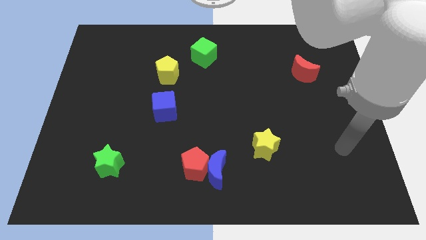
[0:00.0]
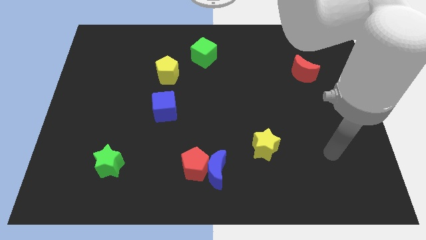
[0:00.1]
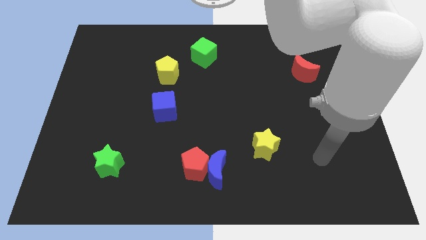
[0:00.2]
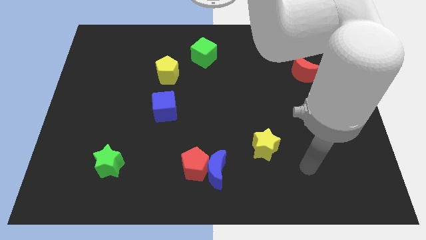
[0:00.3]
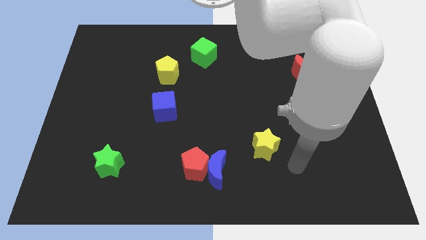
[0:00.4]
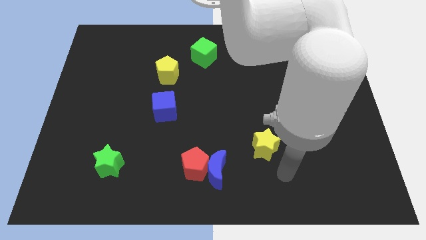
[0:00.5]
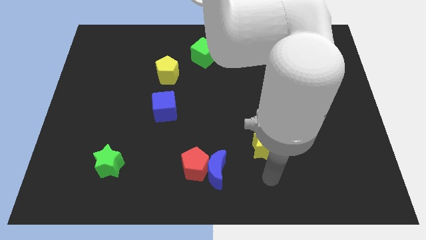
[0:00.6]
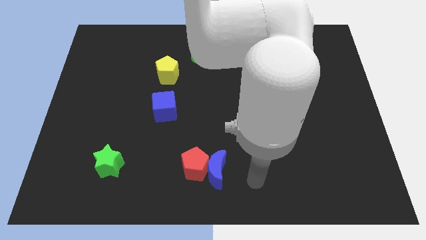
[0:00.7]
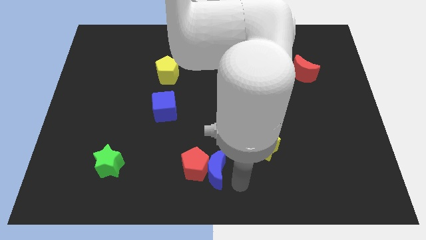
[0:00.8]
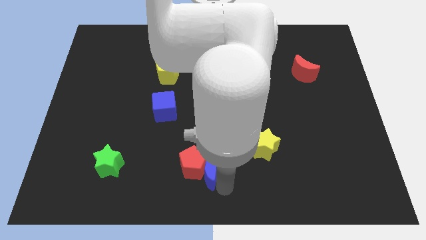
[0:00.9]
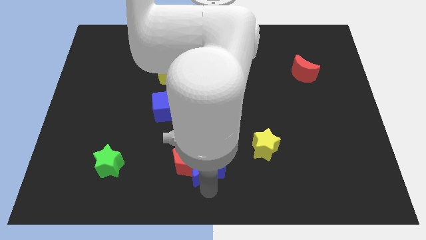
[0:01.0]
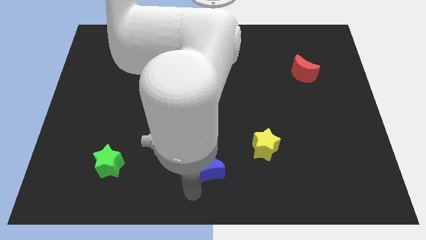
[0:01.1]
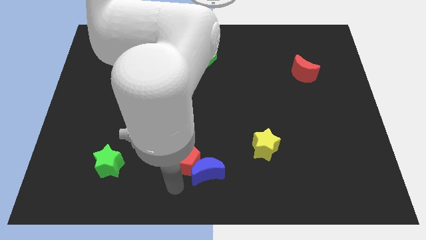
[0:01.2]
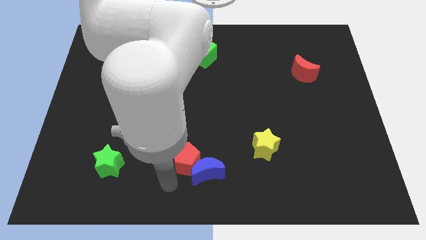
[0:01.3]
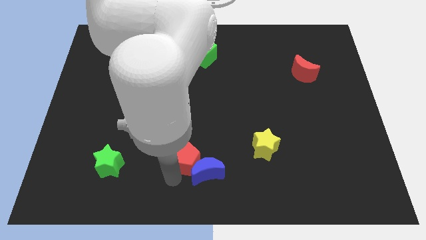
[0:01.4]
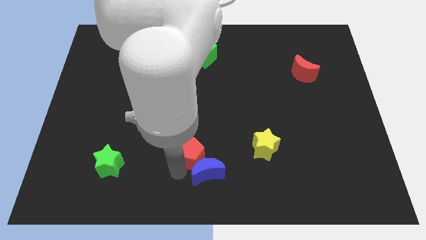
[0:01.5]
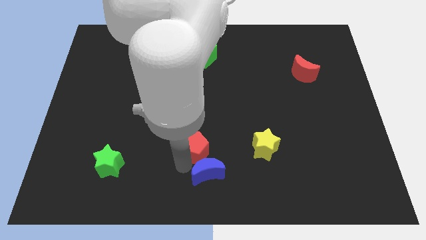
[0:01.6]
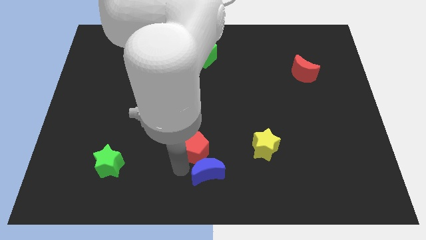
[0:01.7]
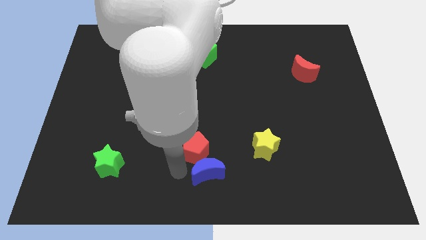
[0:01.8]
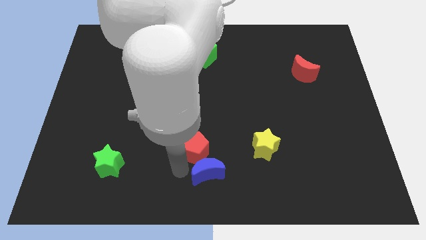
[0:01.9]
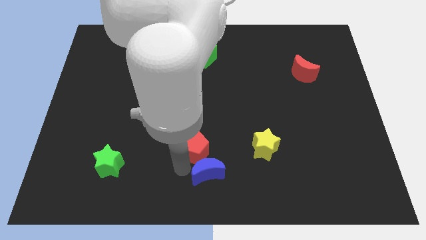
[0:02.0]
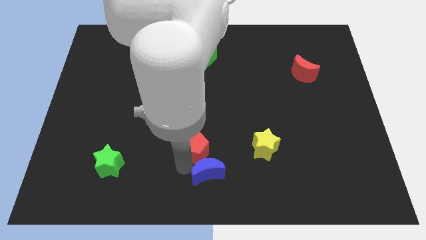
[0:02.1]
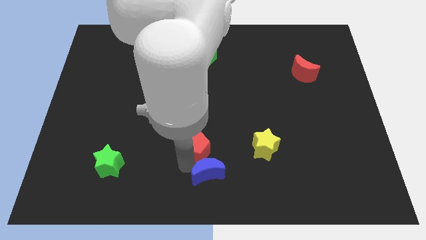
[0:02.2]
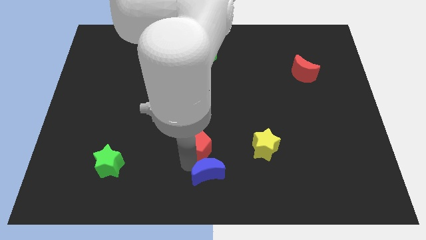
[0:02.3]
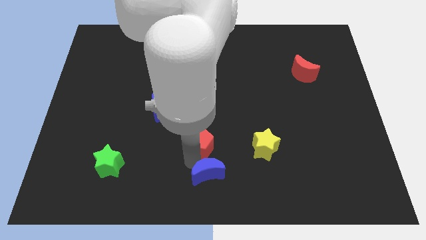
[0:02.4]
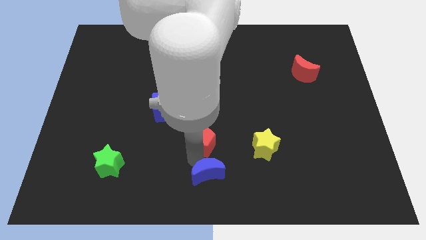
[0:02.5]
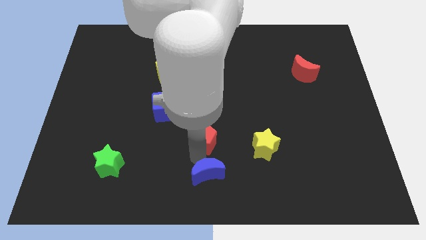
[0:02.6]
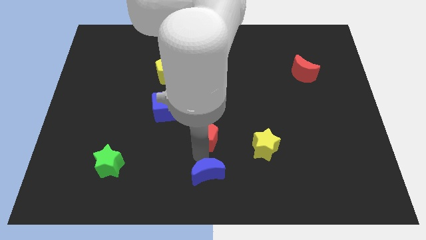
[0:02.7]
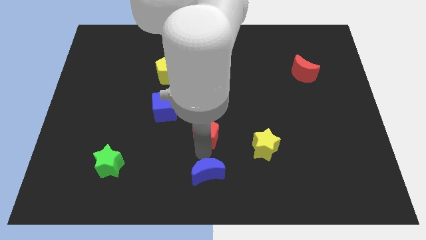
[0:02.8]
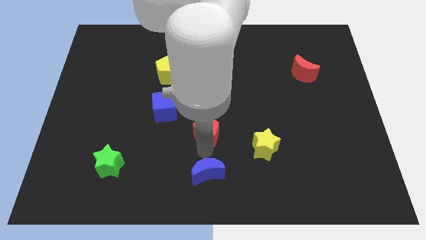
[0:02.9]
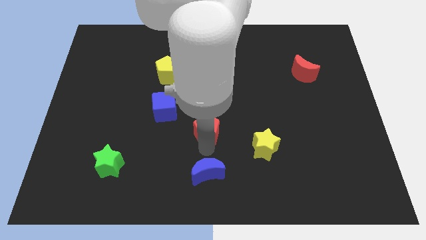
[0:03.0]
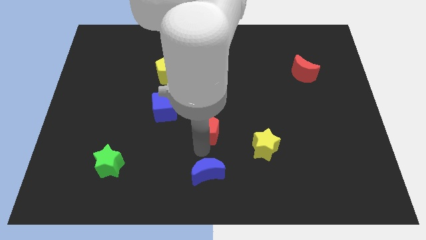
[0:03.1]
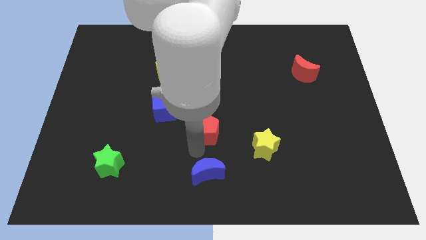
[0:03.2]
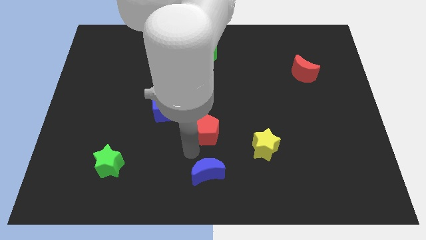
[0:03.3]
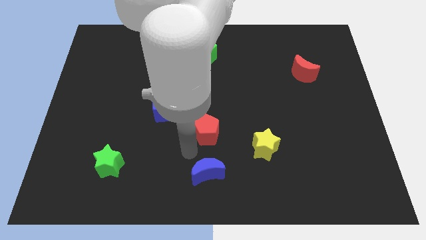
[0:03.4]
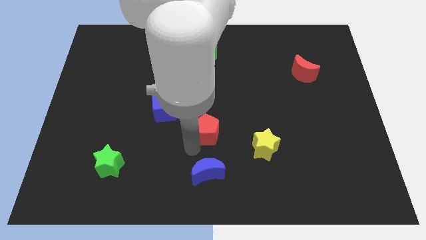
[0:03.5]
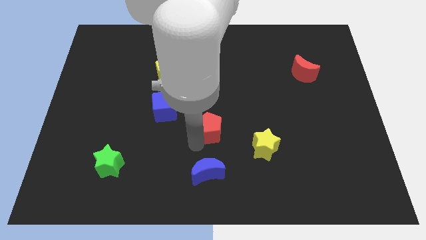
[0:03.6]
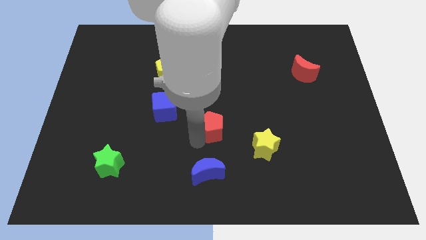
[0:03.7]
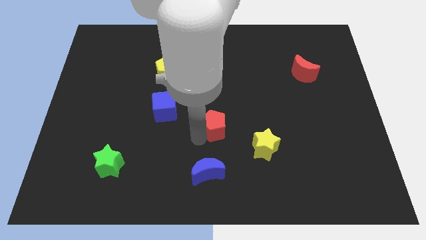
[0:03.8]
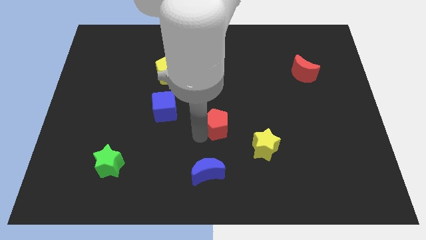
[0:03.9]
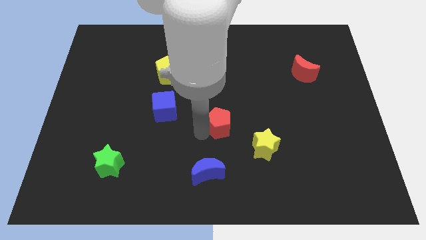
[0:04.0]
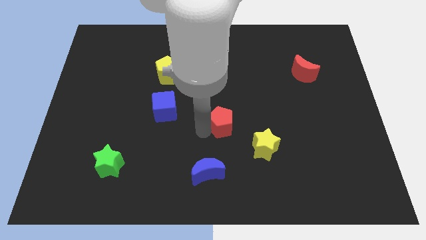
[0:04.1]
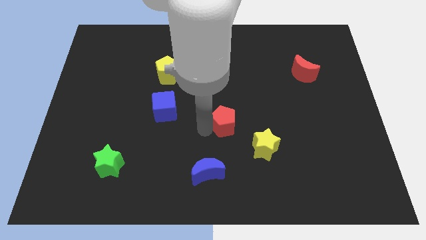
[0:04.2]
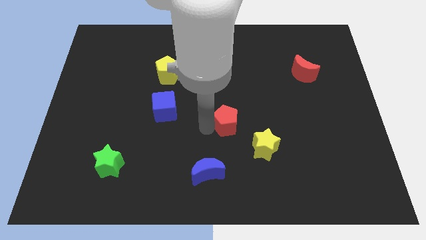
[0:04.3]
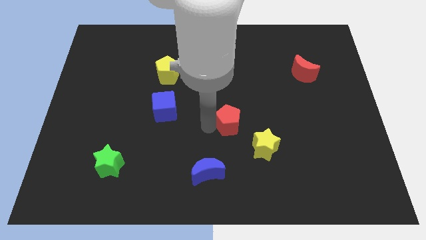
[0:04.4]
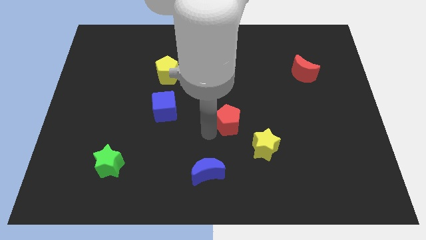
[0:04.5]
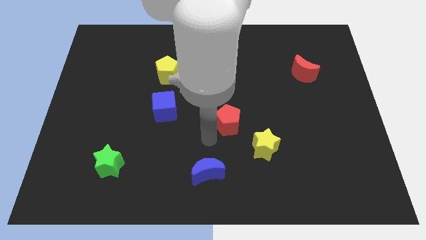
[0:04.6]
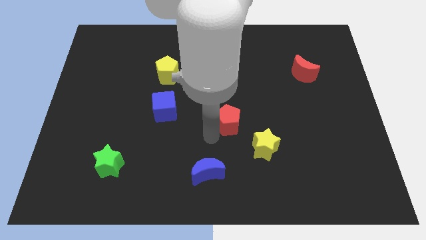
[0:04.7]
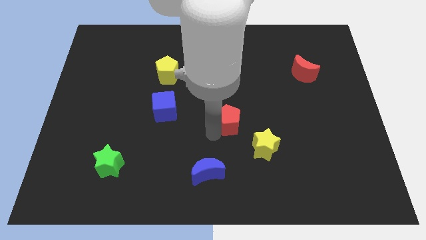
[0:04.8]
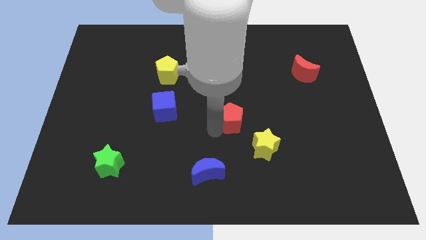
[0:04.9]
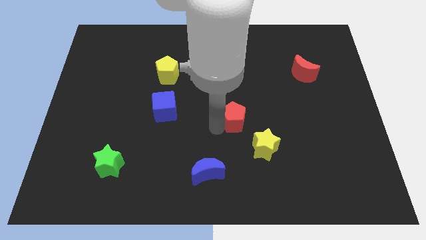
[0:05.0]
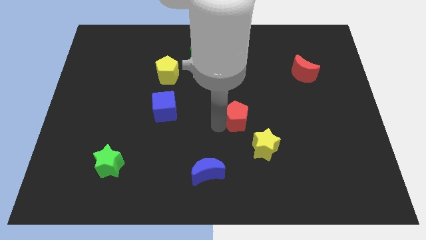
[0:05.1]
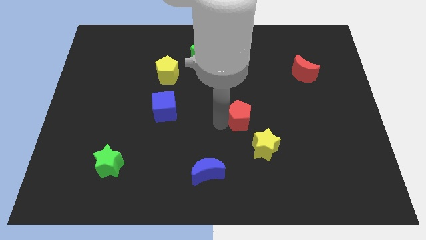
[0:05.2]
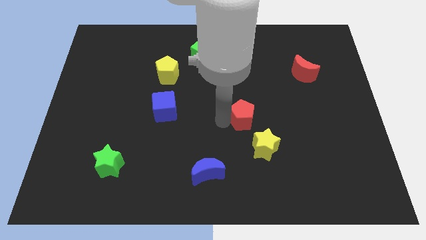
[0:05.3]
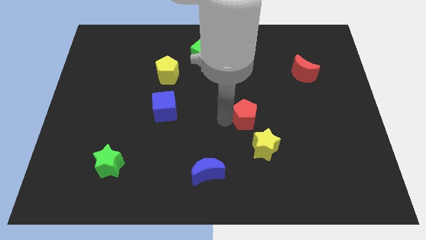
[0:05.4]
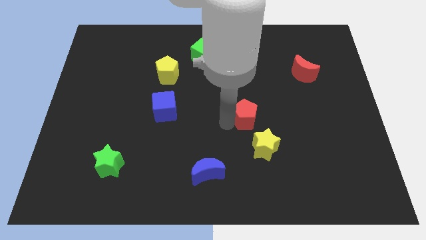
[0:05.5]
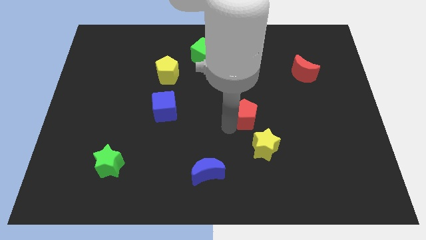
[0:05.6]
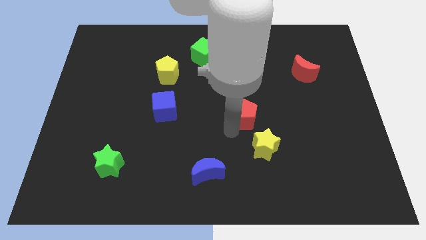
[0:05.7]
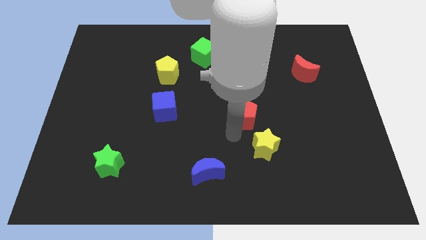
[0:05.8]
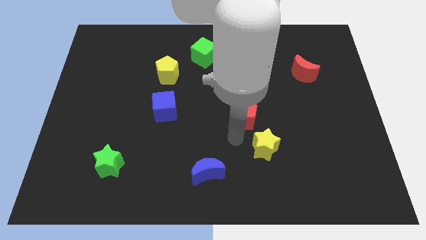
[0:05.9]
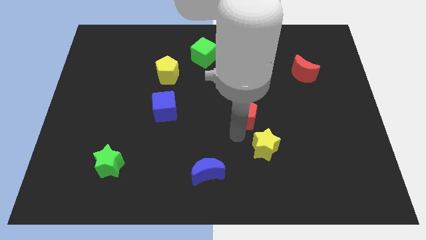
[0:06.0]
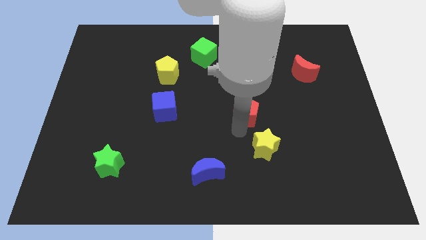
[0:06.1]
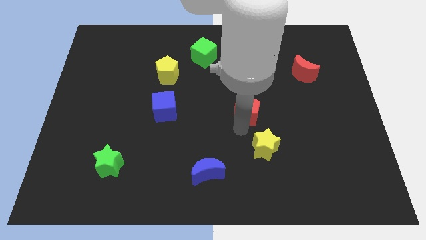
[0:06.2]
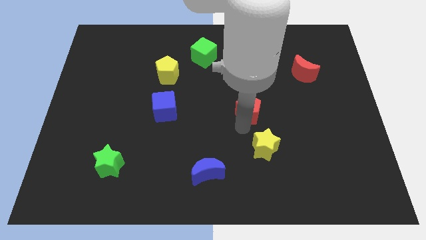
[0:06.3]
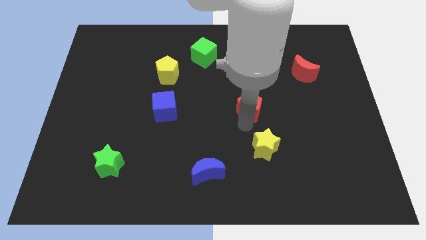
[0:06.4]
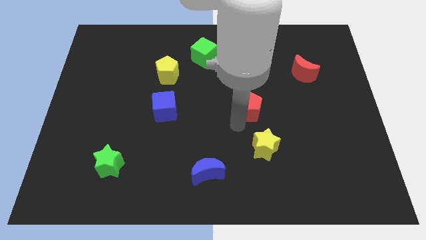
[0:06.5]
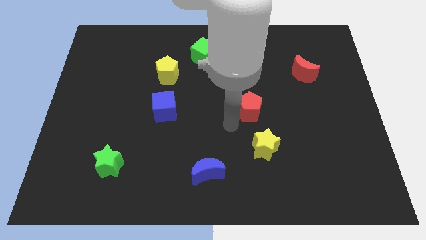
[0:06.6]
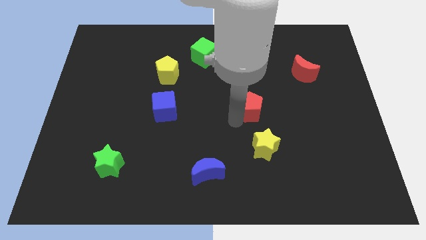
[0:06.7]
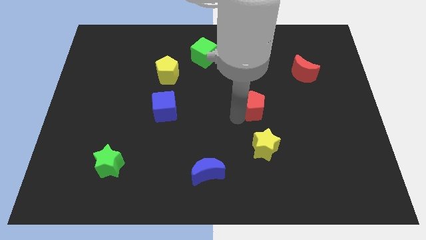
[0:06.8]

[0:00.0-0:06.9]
move the red pentagon upwards and right diagonally

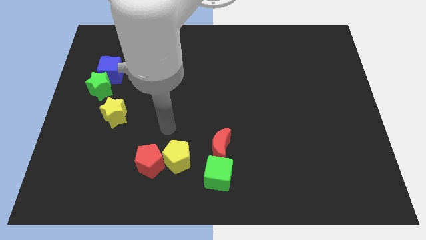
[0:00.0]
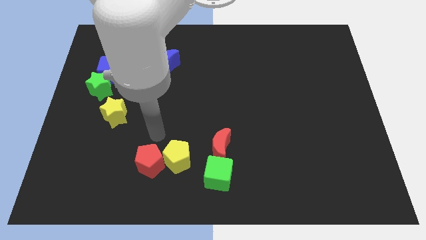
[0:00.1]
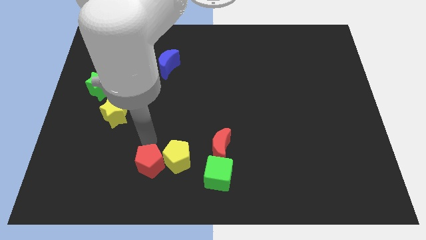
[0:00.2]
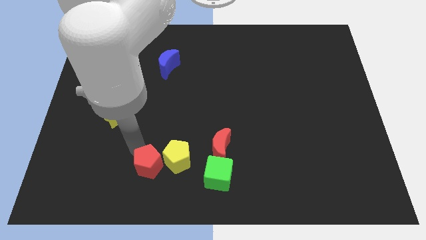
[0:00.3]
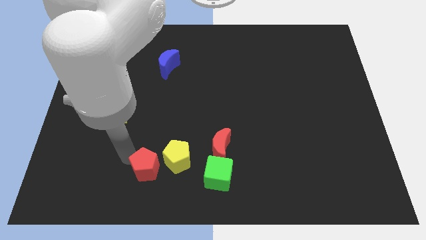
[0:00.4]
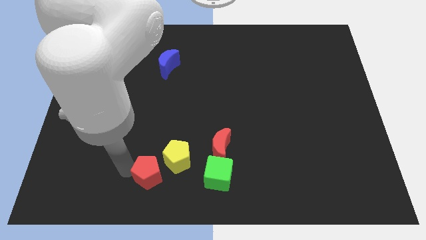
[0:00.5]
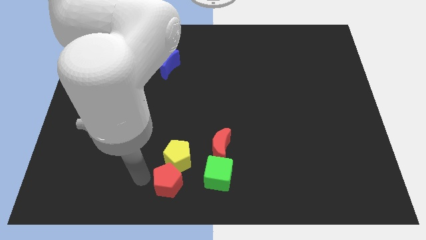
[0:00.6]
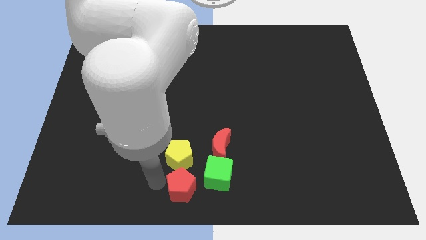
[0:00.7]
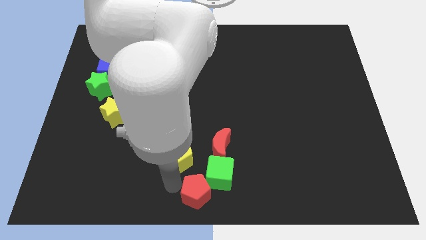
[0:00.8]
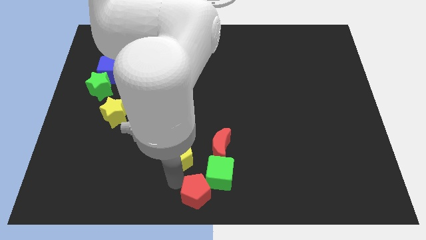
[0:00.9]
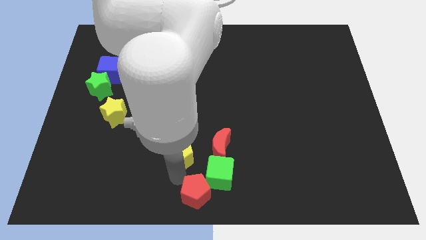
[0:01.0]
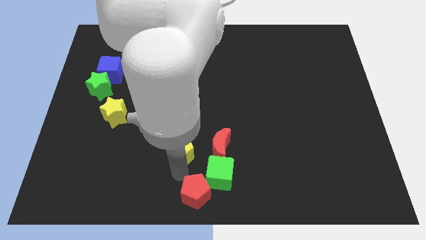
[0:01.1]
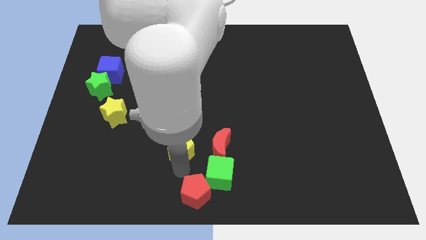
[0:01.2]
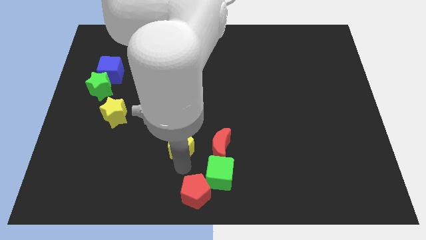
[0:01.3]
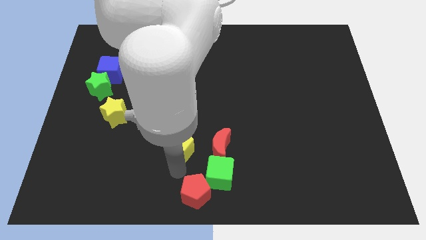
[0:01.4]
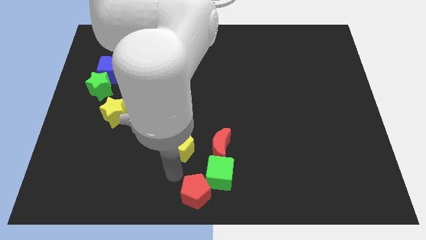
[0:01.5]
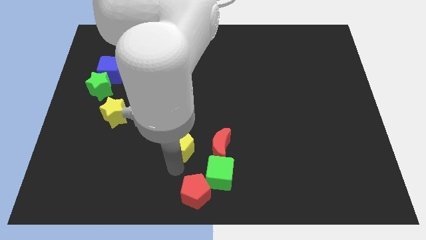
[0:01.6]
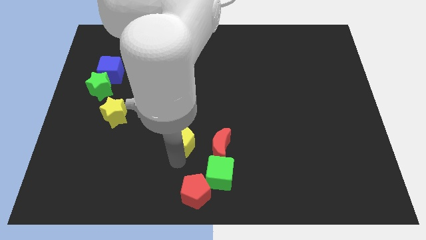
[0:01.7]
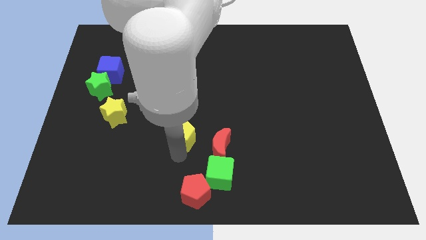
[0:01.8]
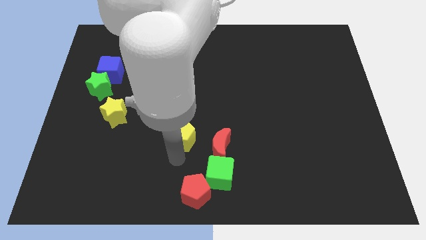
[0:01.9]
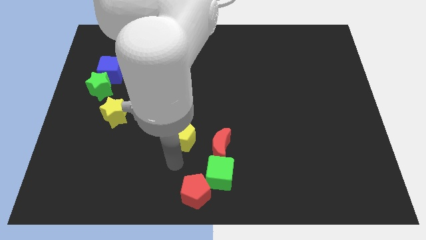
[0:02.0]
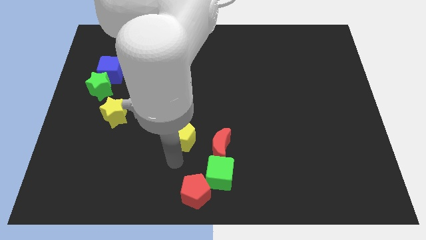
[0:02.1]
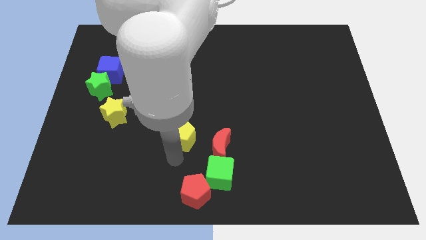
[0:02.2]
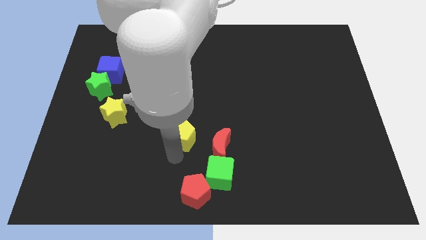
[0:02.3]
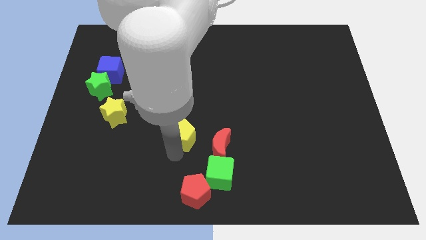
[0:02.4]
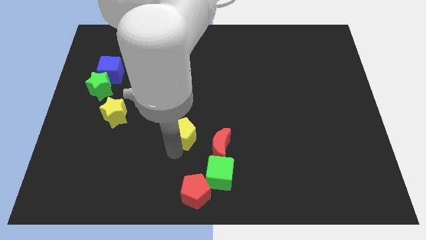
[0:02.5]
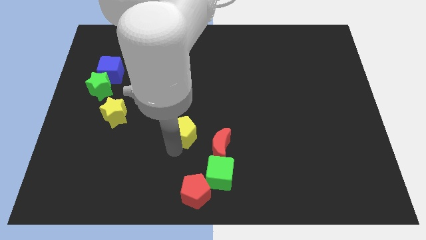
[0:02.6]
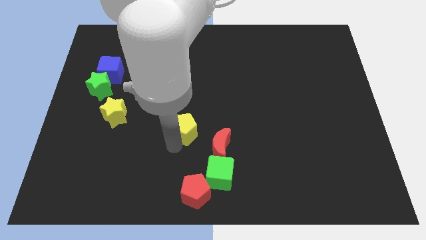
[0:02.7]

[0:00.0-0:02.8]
slightly push the yellow pentagon up
